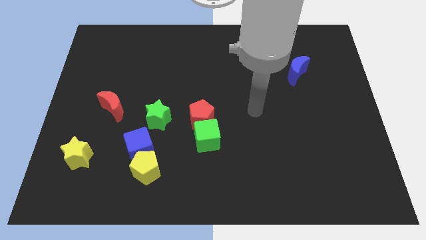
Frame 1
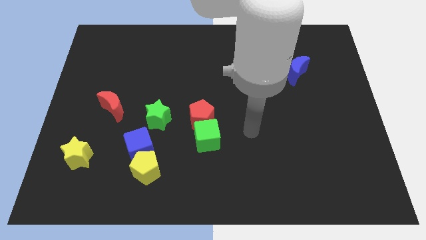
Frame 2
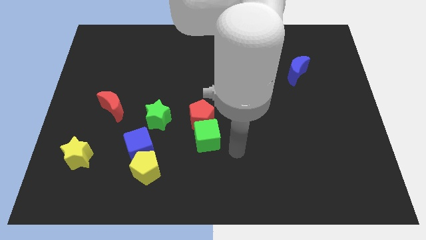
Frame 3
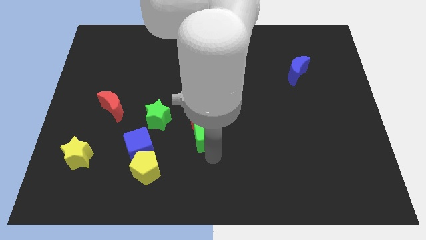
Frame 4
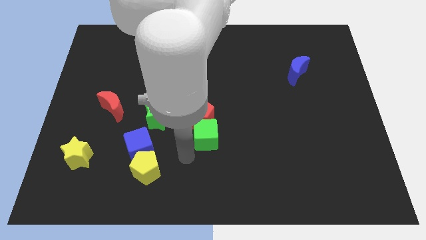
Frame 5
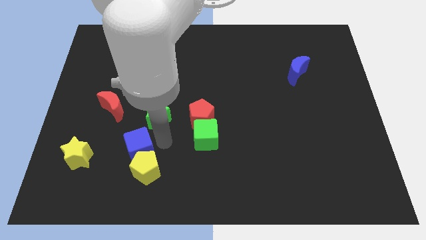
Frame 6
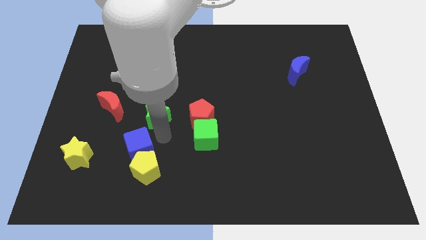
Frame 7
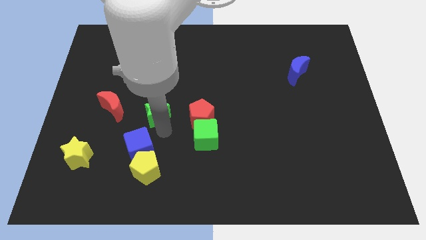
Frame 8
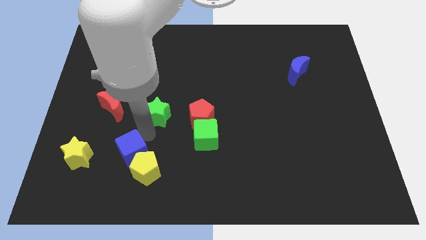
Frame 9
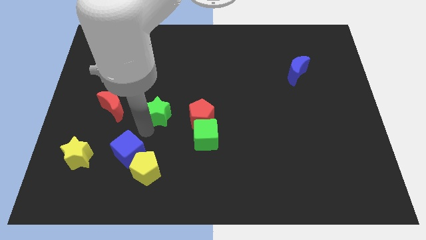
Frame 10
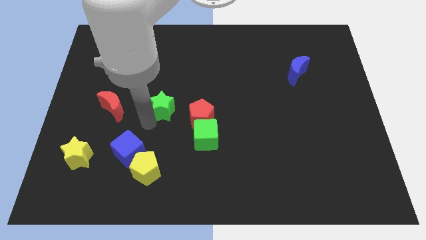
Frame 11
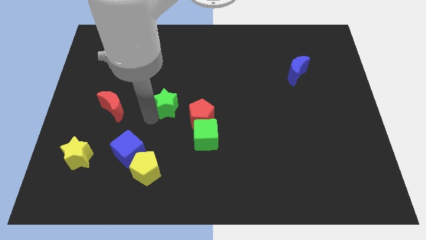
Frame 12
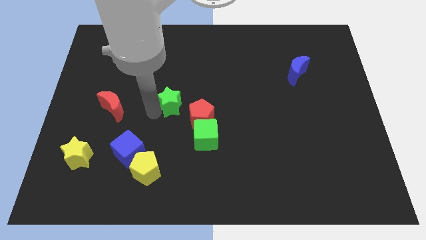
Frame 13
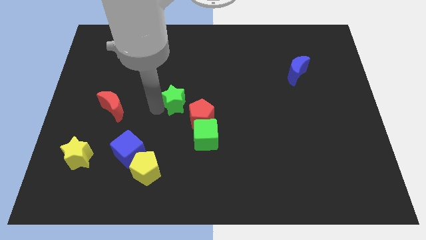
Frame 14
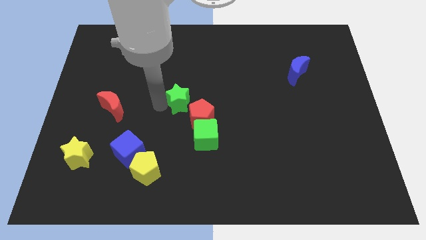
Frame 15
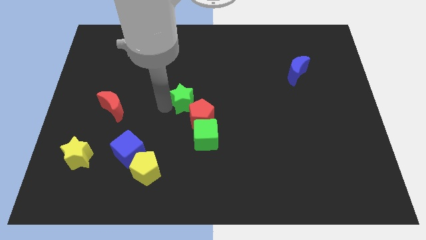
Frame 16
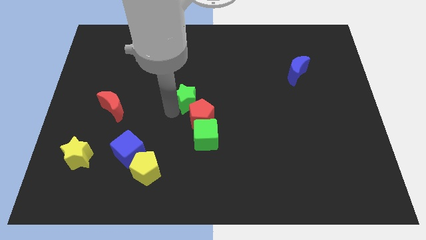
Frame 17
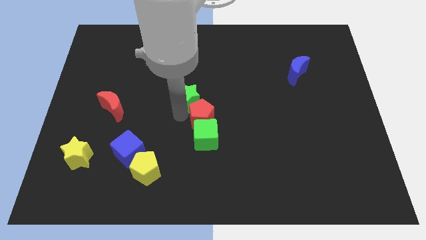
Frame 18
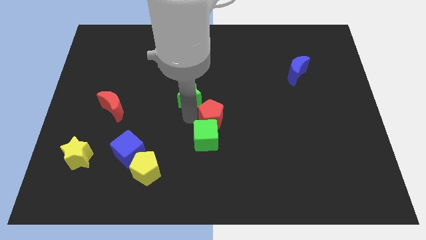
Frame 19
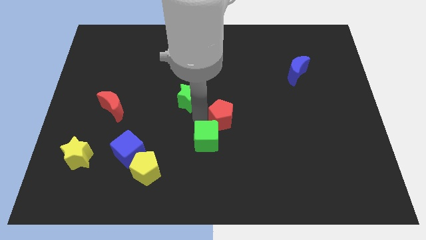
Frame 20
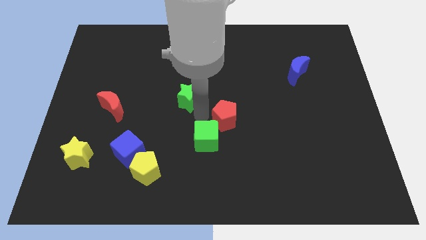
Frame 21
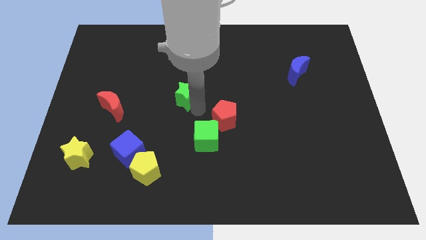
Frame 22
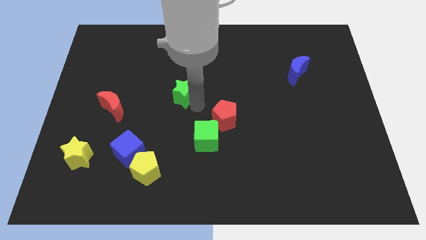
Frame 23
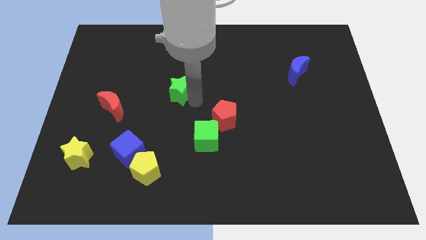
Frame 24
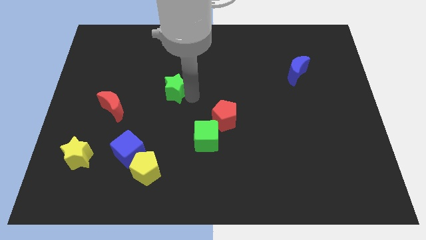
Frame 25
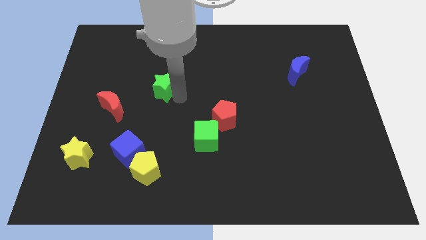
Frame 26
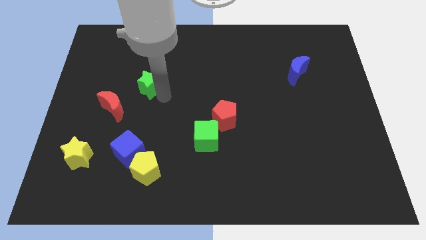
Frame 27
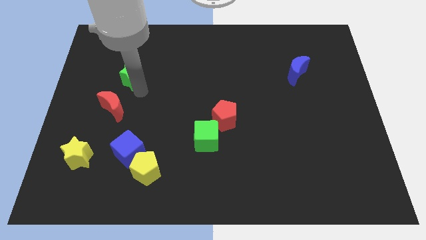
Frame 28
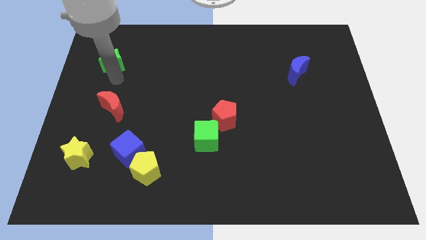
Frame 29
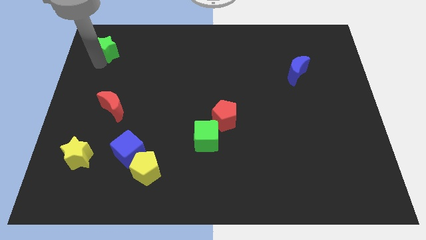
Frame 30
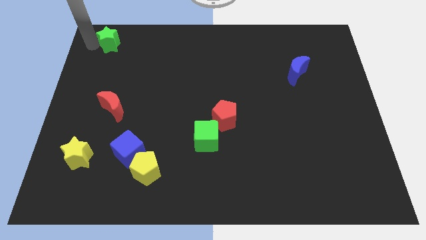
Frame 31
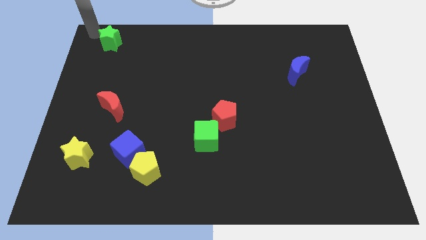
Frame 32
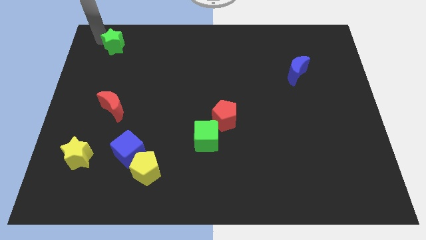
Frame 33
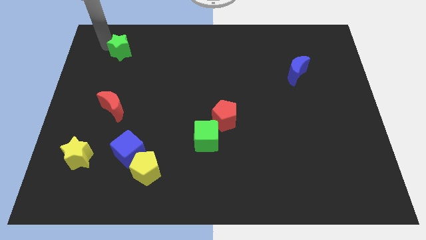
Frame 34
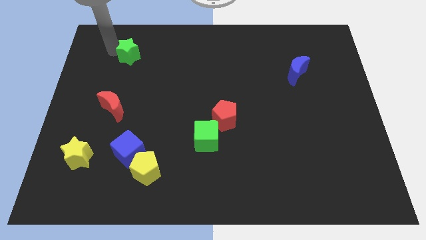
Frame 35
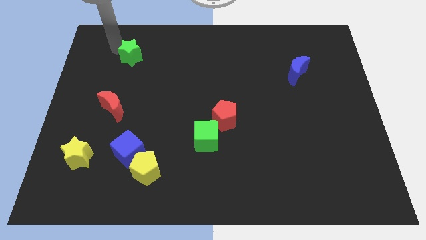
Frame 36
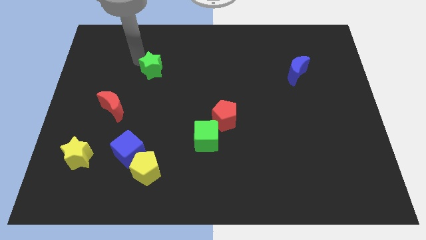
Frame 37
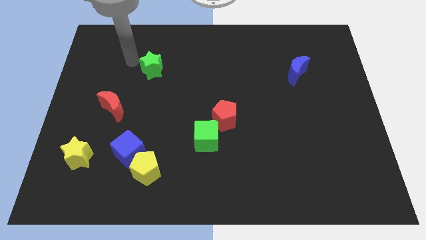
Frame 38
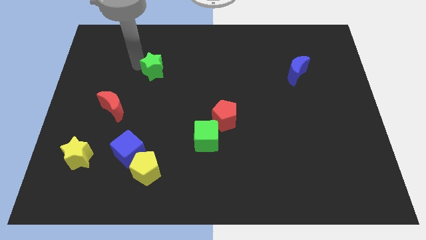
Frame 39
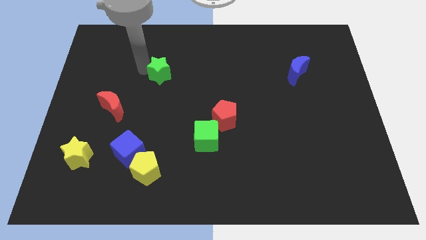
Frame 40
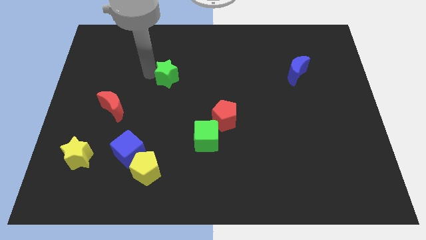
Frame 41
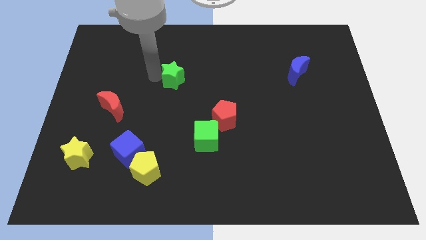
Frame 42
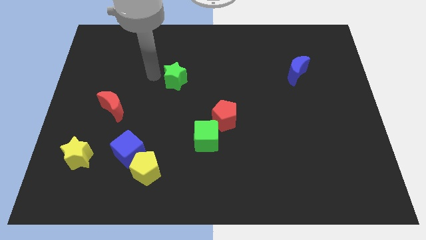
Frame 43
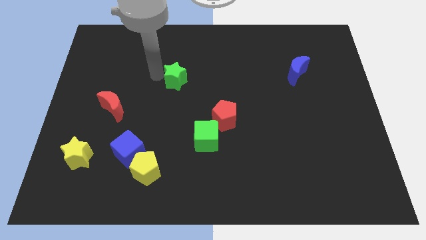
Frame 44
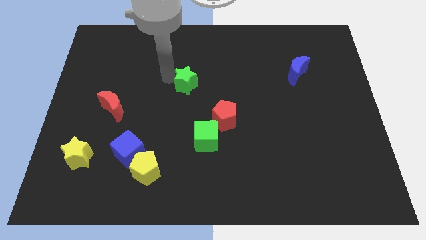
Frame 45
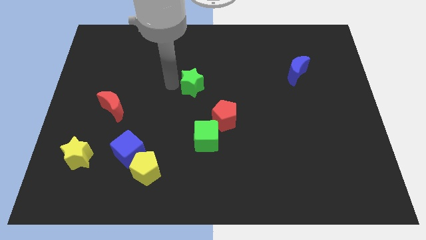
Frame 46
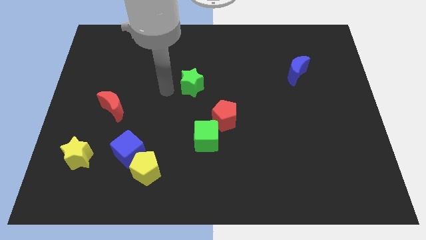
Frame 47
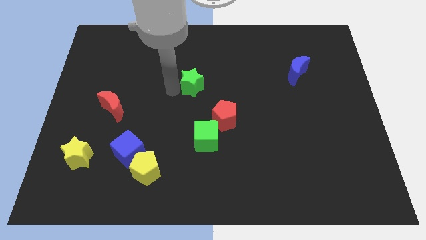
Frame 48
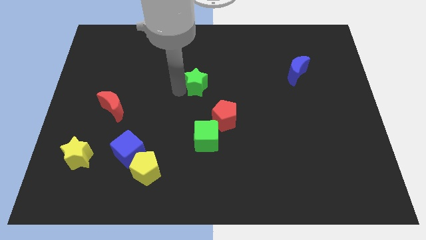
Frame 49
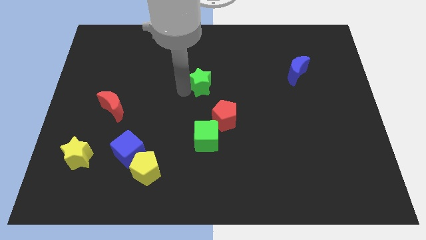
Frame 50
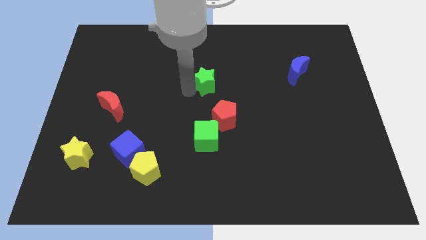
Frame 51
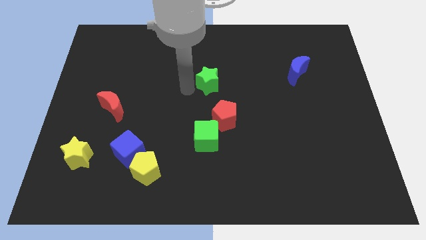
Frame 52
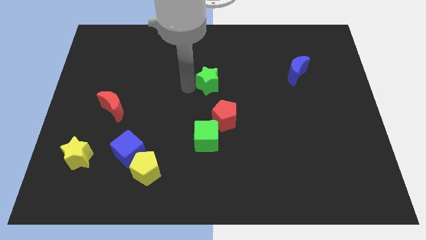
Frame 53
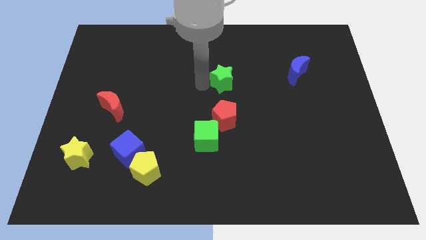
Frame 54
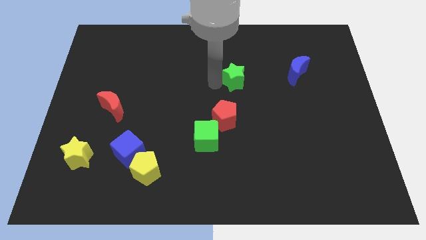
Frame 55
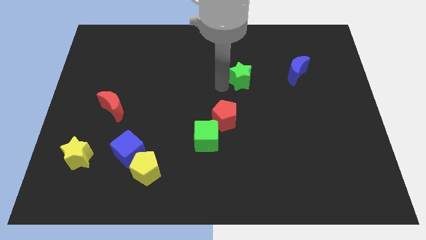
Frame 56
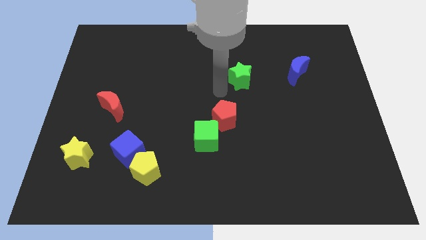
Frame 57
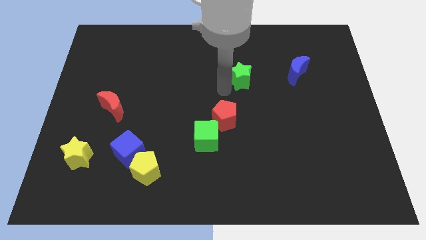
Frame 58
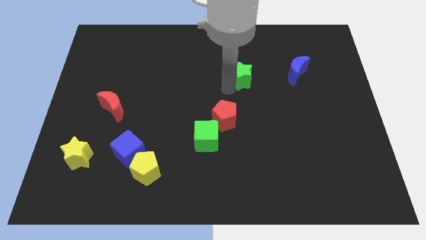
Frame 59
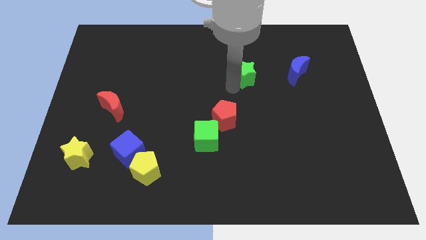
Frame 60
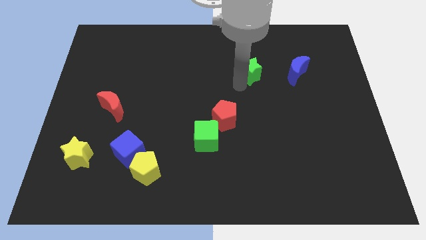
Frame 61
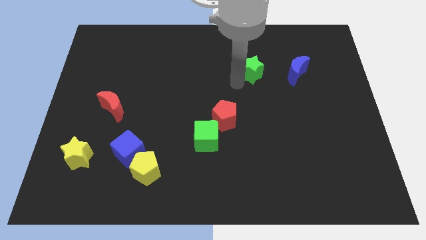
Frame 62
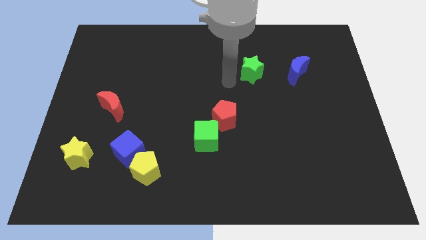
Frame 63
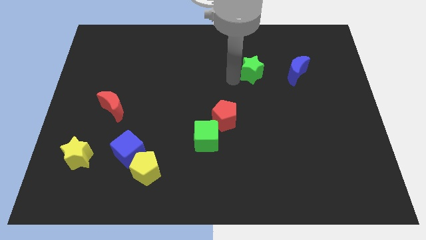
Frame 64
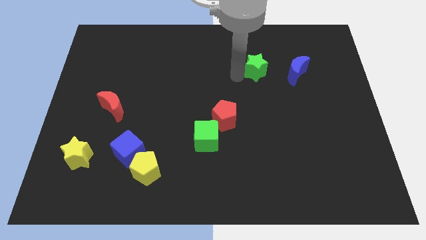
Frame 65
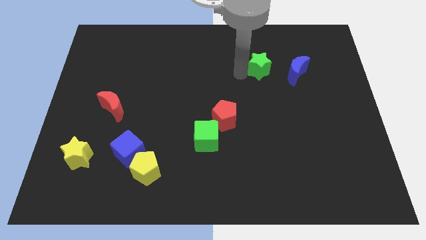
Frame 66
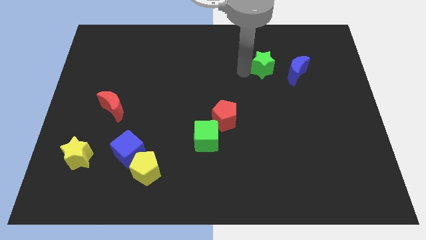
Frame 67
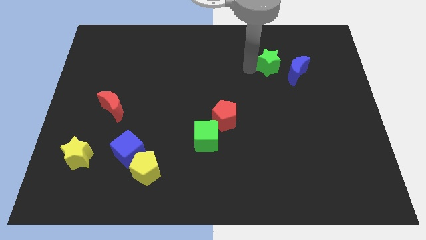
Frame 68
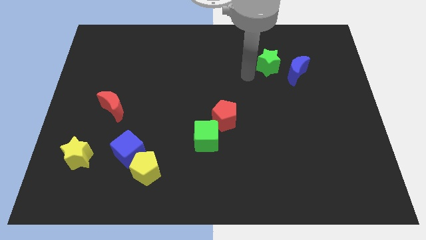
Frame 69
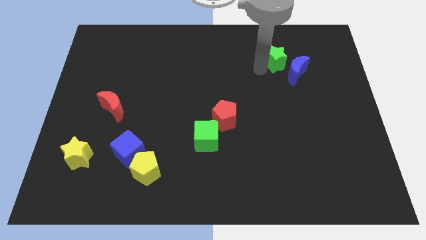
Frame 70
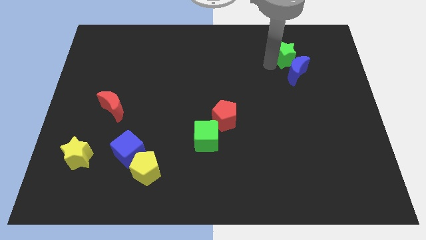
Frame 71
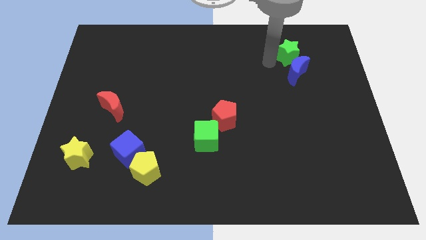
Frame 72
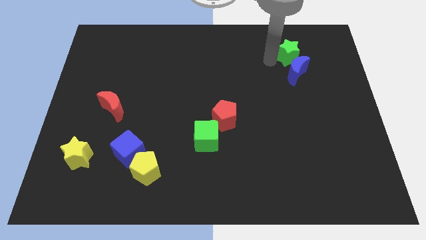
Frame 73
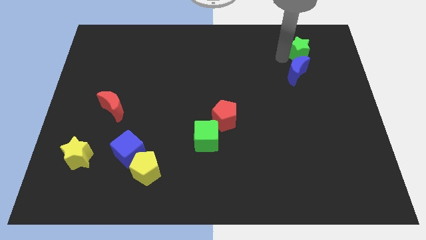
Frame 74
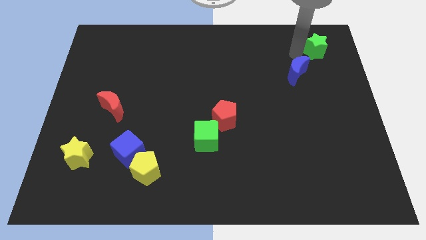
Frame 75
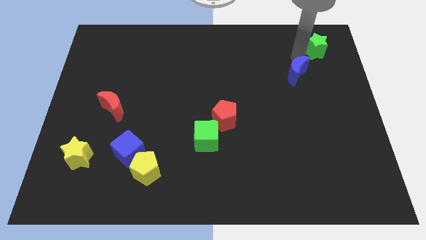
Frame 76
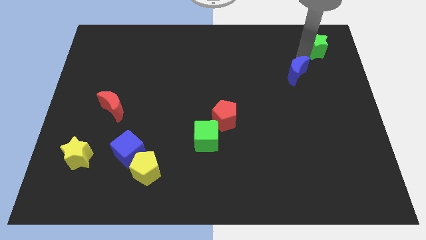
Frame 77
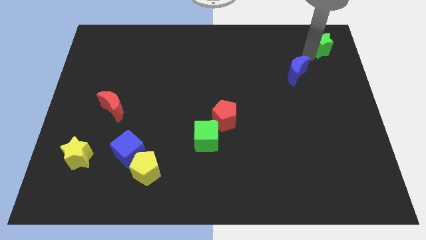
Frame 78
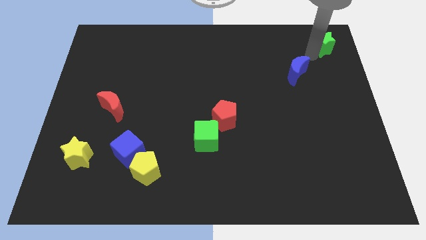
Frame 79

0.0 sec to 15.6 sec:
push the green star to the top right
